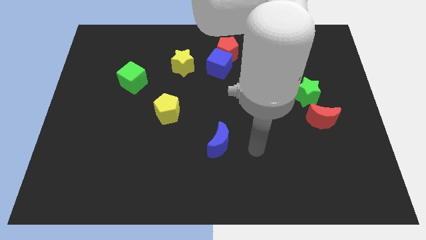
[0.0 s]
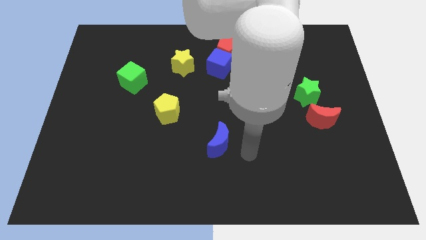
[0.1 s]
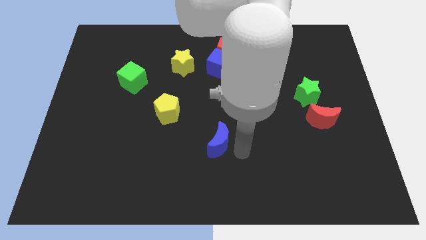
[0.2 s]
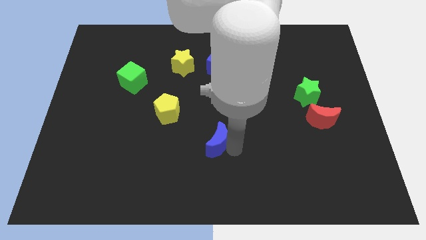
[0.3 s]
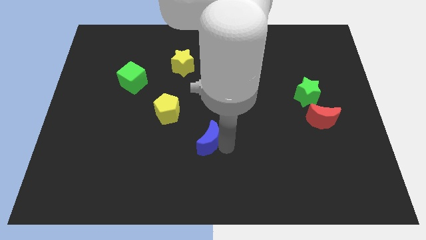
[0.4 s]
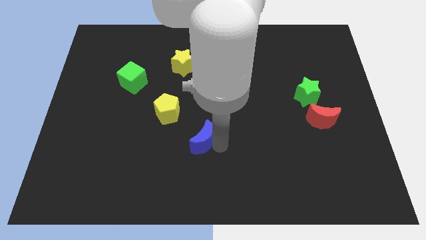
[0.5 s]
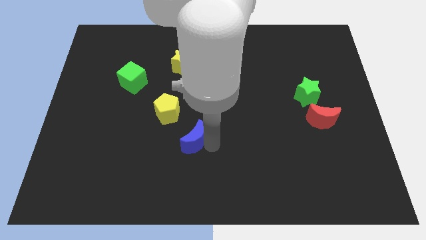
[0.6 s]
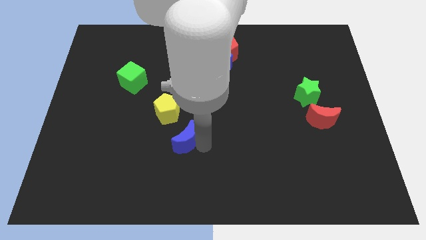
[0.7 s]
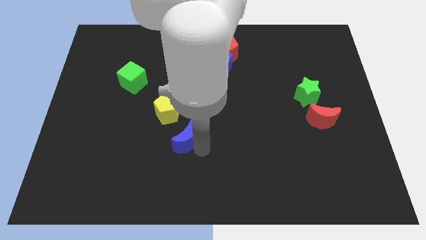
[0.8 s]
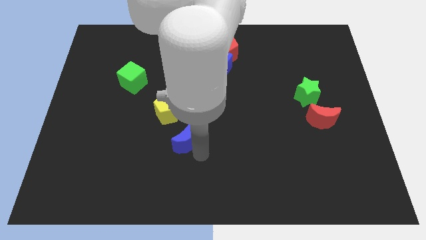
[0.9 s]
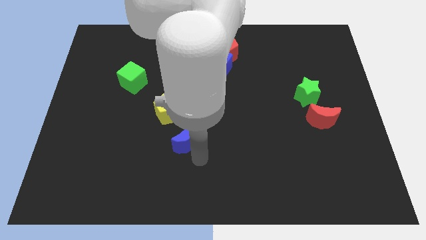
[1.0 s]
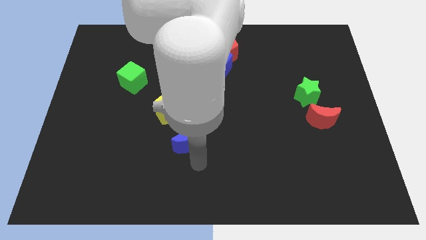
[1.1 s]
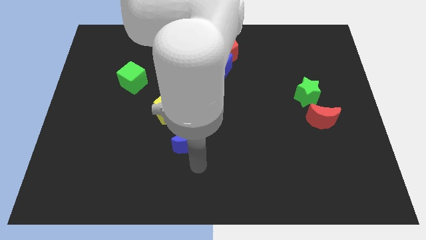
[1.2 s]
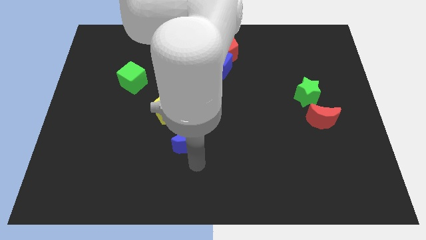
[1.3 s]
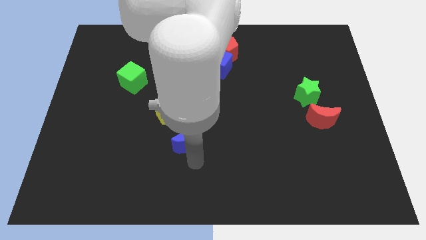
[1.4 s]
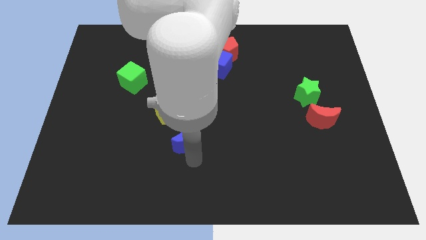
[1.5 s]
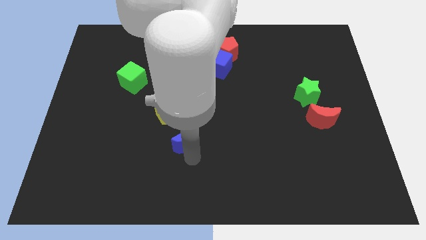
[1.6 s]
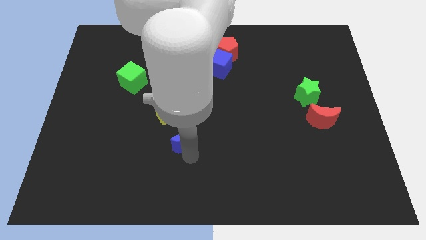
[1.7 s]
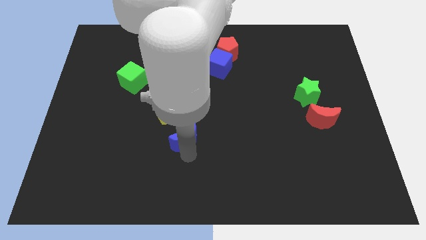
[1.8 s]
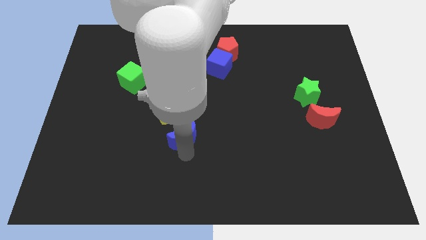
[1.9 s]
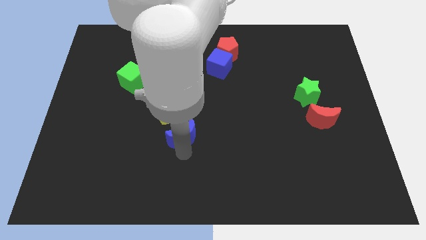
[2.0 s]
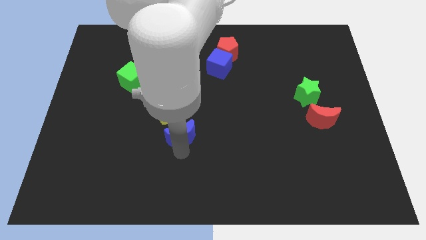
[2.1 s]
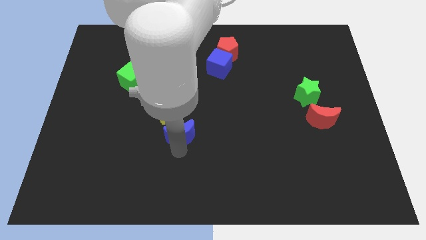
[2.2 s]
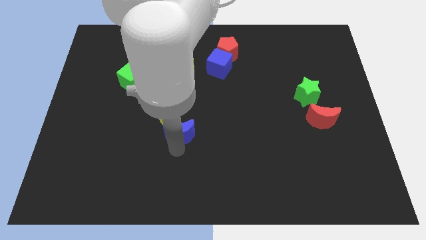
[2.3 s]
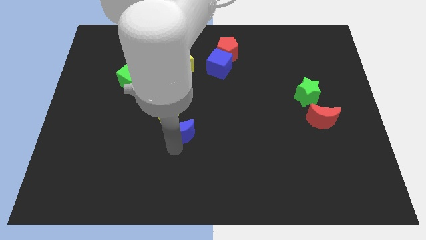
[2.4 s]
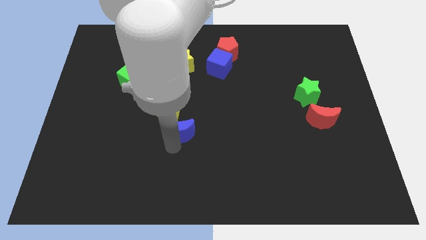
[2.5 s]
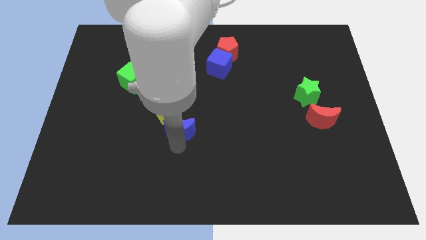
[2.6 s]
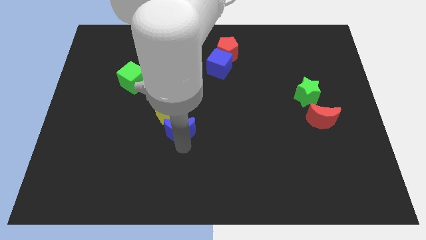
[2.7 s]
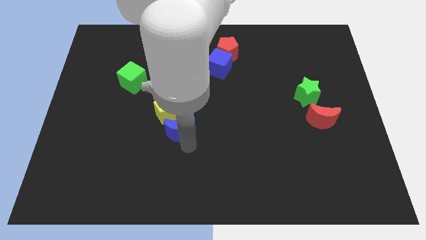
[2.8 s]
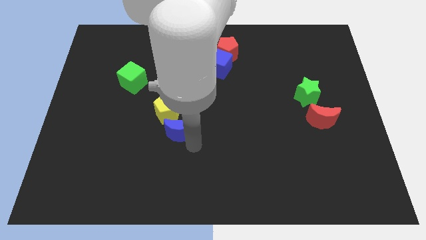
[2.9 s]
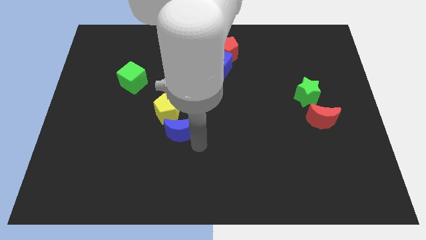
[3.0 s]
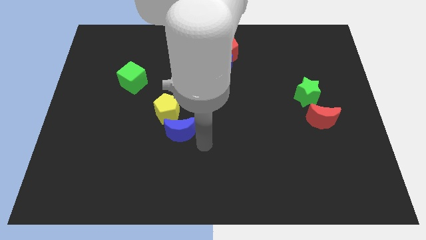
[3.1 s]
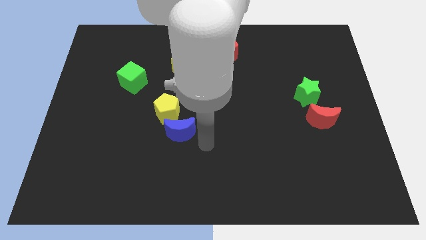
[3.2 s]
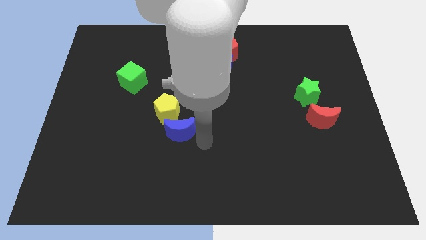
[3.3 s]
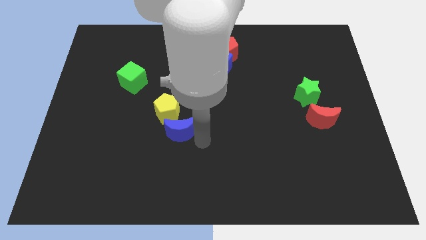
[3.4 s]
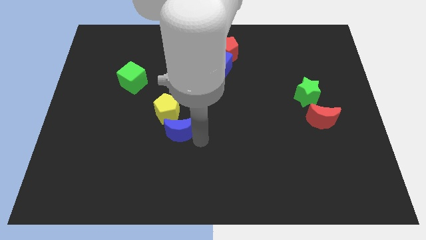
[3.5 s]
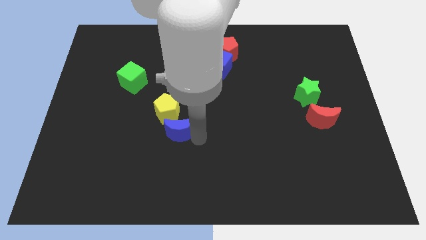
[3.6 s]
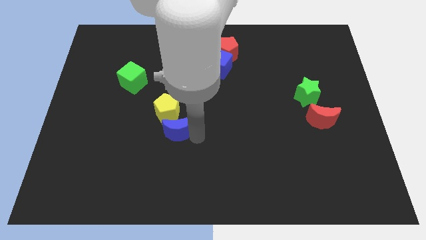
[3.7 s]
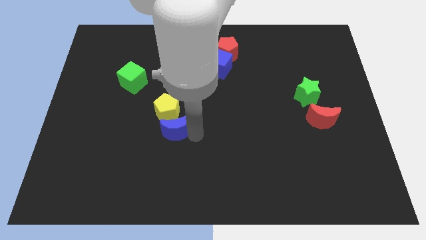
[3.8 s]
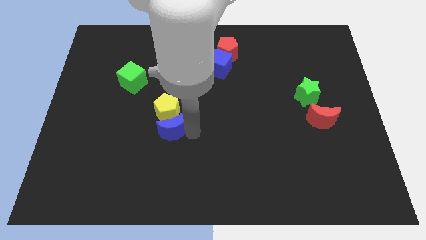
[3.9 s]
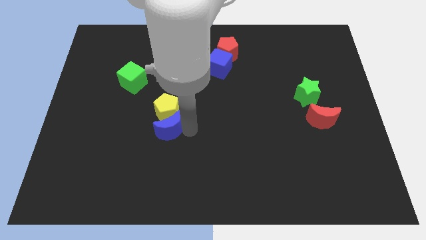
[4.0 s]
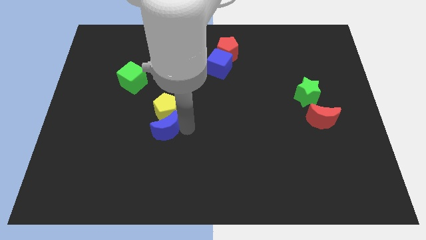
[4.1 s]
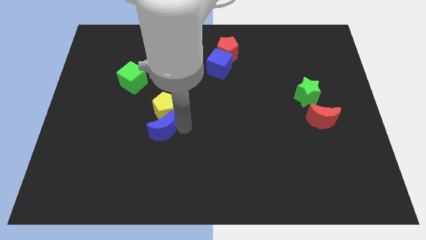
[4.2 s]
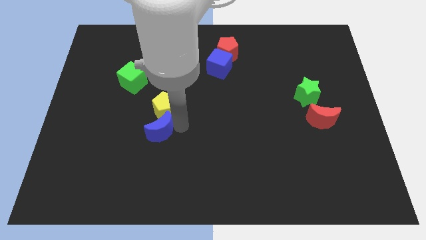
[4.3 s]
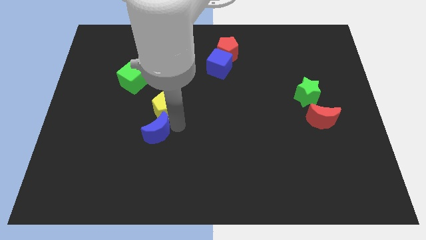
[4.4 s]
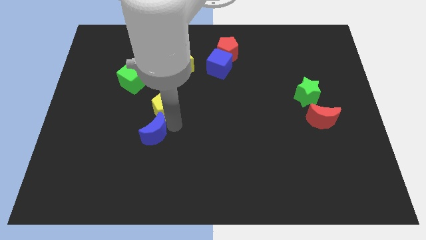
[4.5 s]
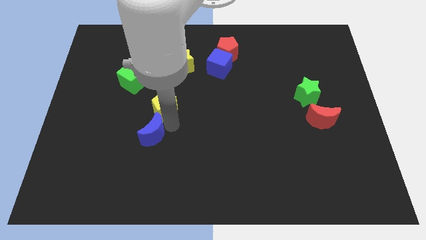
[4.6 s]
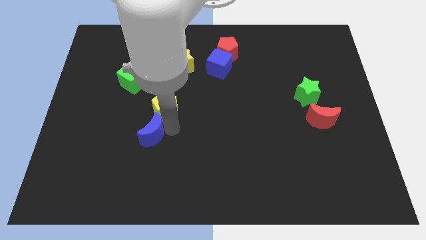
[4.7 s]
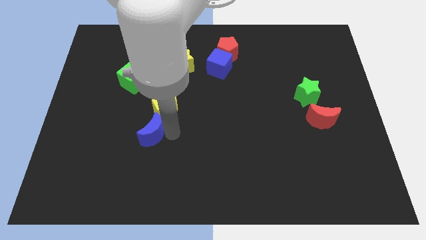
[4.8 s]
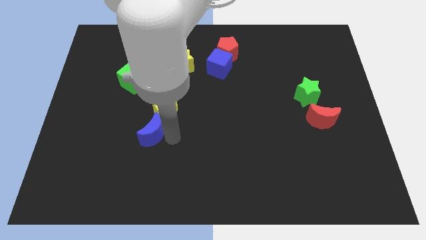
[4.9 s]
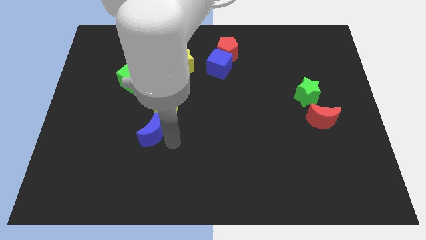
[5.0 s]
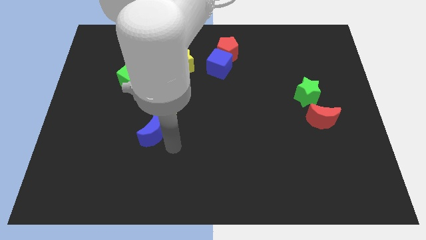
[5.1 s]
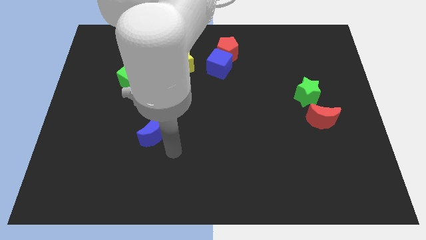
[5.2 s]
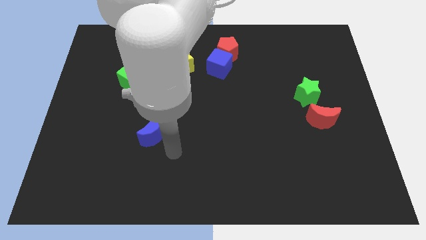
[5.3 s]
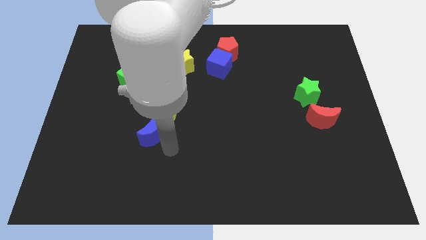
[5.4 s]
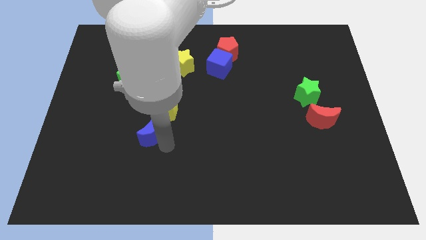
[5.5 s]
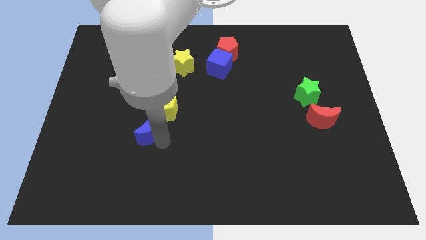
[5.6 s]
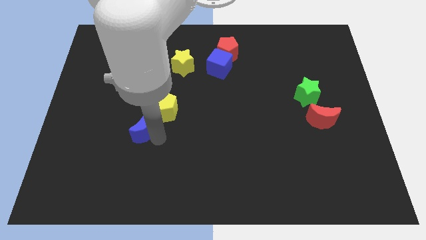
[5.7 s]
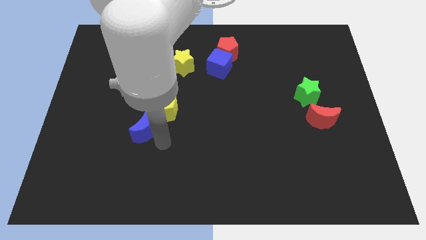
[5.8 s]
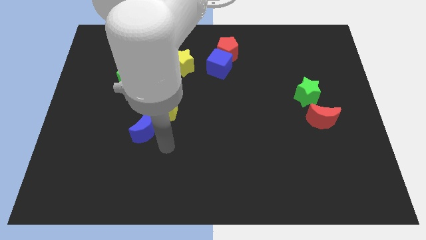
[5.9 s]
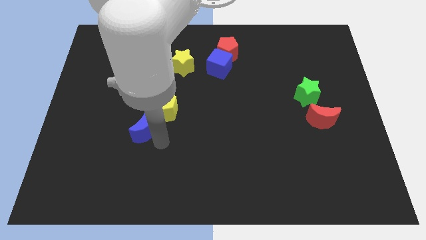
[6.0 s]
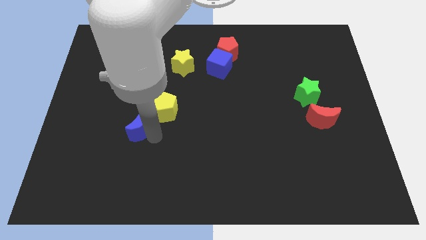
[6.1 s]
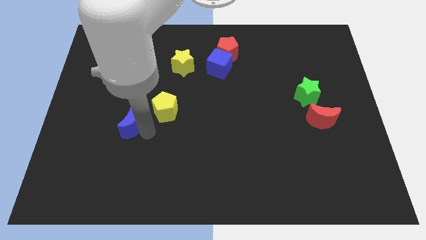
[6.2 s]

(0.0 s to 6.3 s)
push the blue moon left of the yellow pentagon

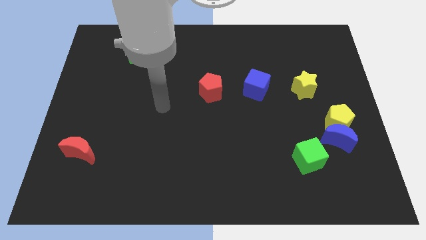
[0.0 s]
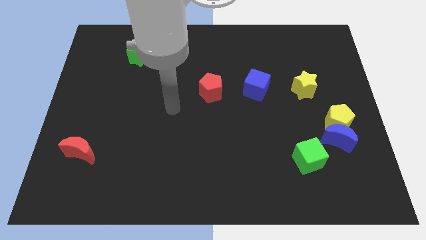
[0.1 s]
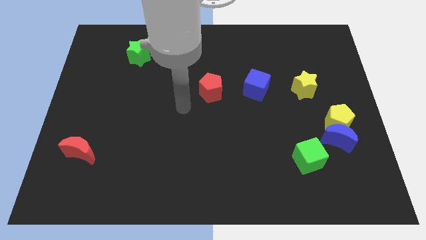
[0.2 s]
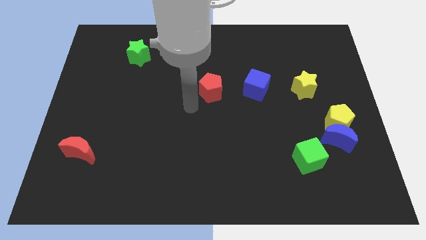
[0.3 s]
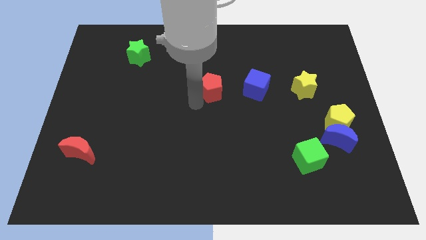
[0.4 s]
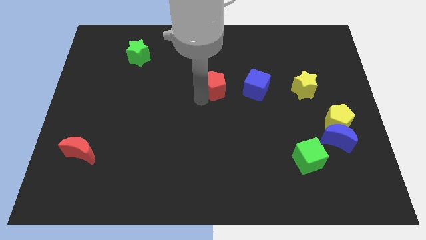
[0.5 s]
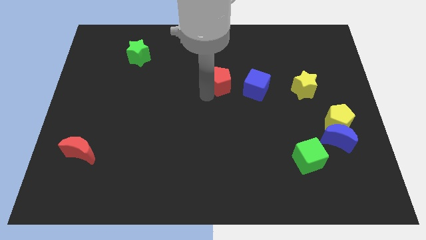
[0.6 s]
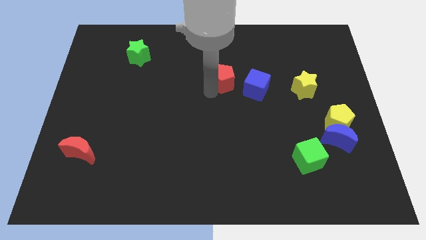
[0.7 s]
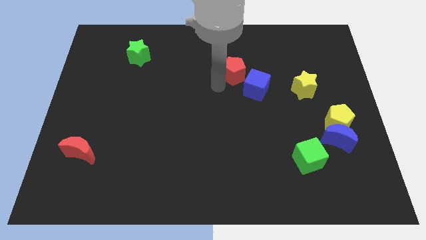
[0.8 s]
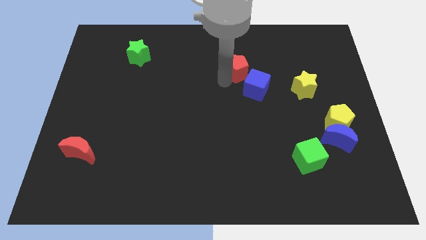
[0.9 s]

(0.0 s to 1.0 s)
slide the red pentagon above the blue cube
